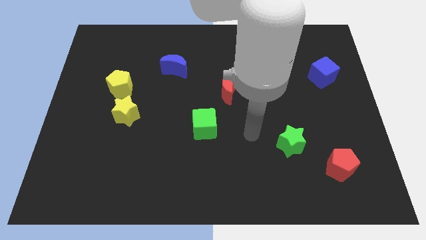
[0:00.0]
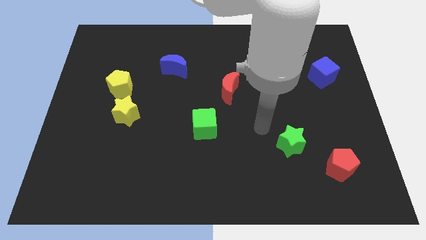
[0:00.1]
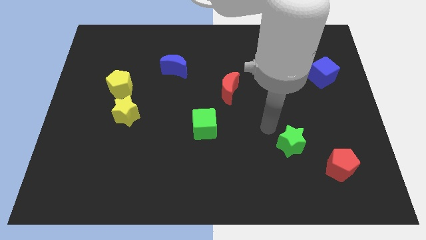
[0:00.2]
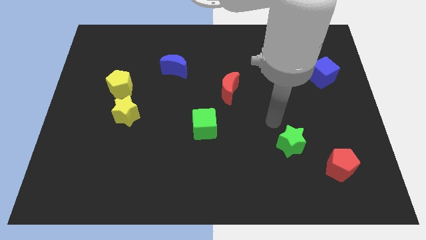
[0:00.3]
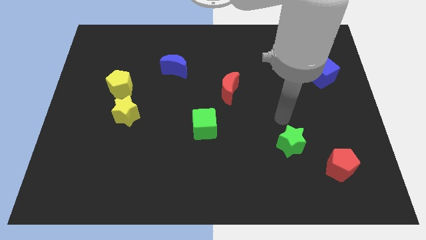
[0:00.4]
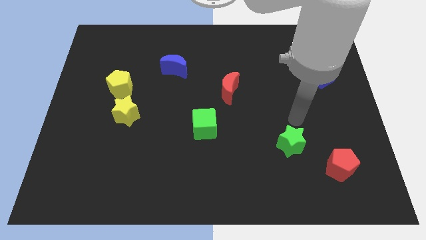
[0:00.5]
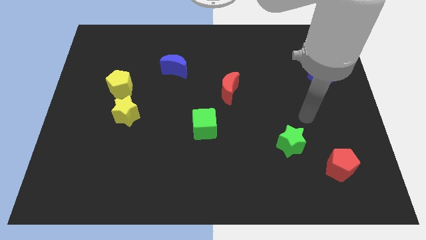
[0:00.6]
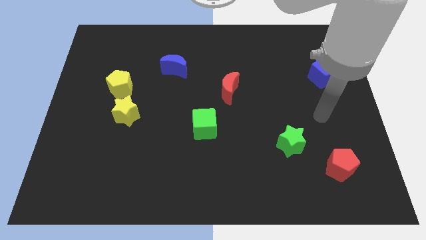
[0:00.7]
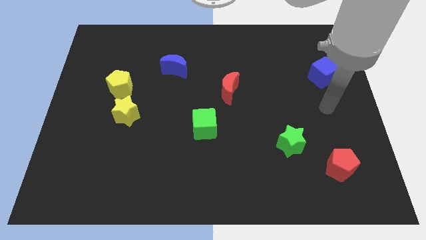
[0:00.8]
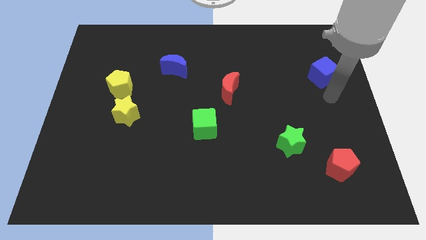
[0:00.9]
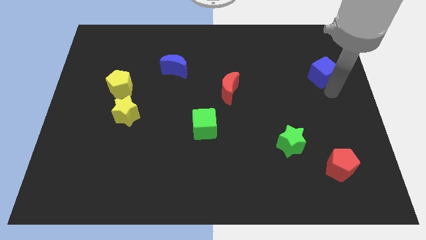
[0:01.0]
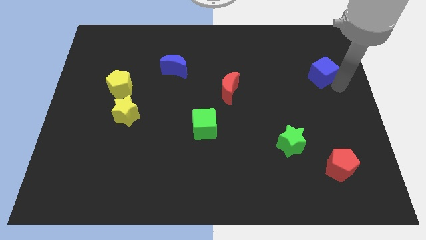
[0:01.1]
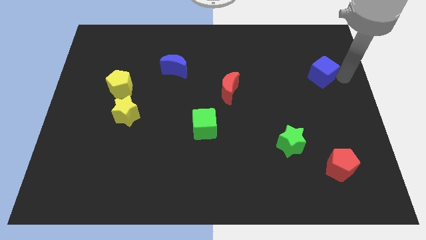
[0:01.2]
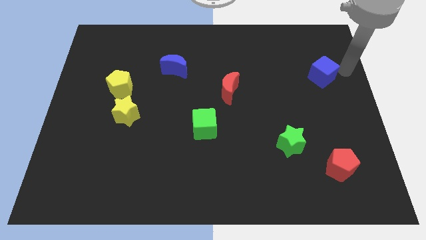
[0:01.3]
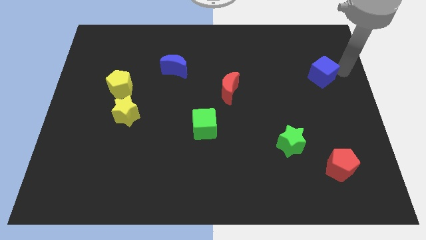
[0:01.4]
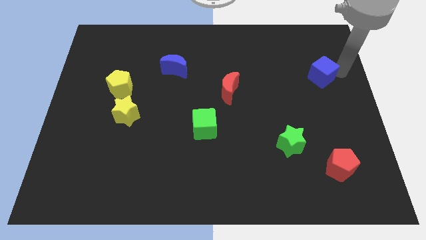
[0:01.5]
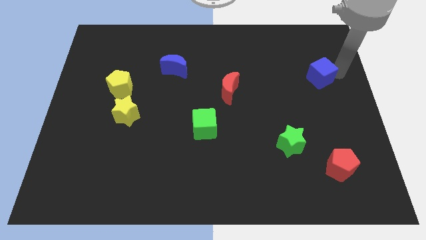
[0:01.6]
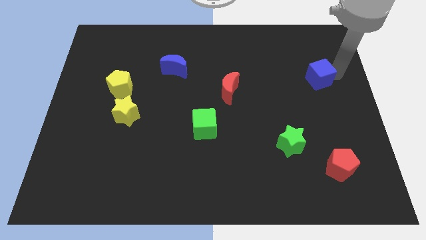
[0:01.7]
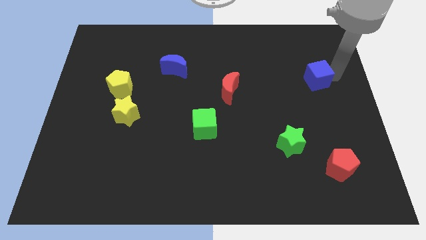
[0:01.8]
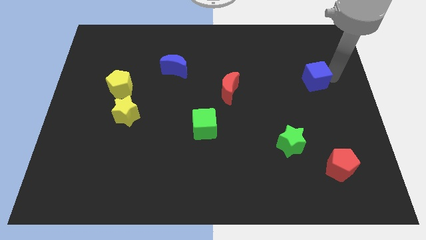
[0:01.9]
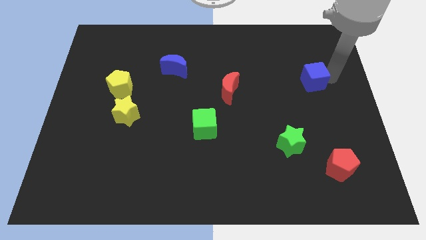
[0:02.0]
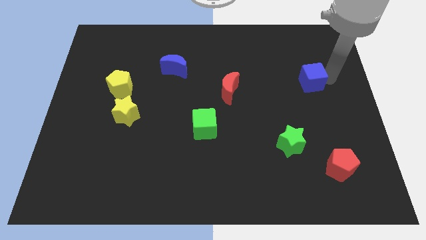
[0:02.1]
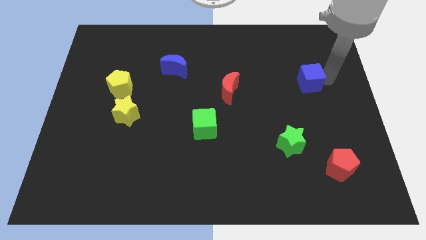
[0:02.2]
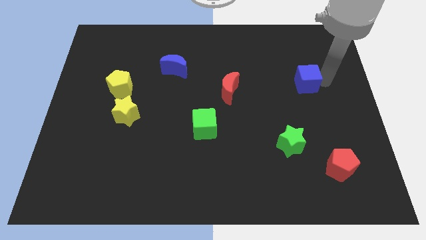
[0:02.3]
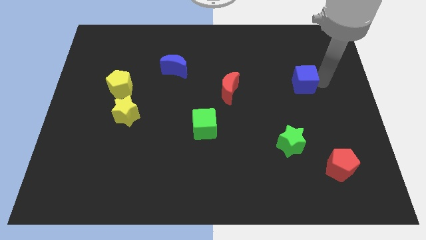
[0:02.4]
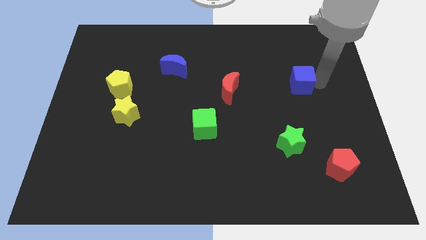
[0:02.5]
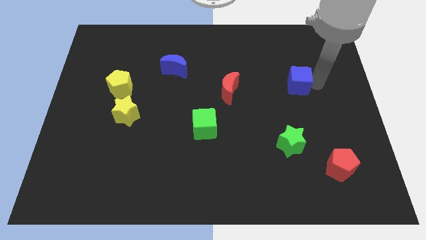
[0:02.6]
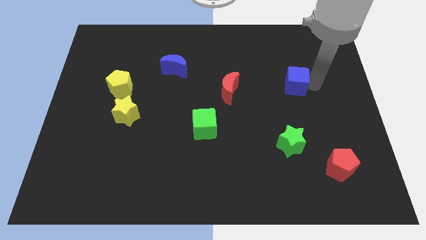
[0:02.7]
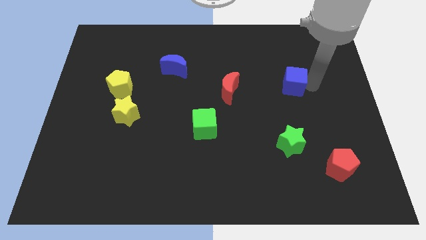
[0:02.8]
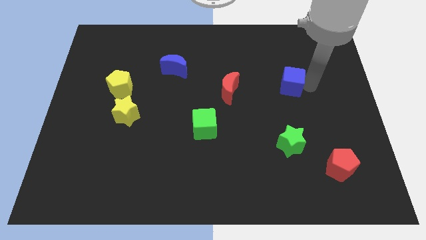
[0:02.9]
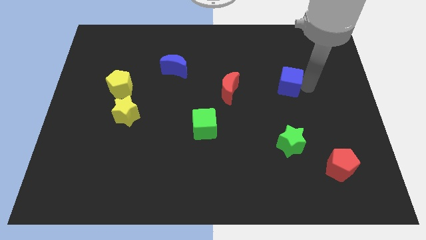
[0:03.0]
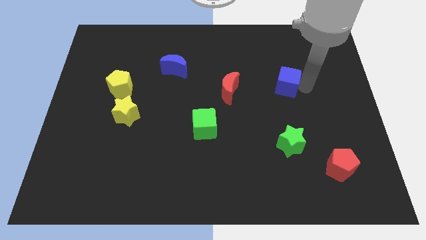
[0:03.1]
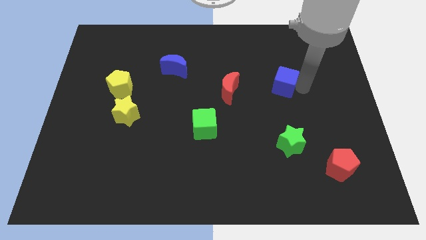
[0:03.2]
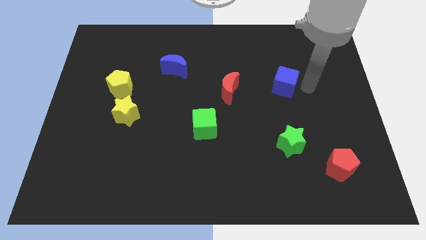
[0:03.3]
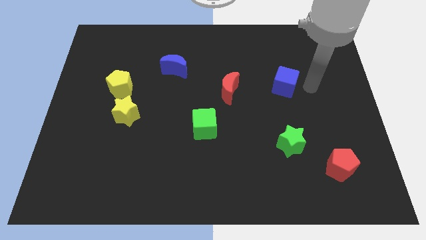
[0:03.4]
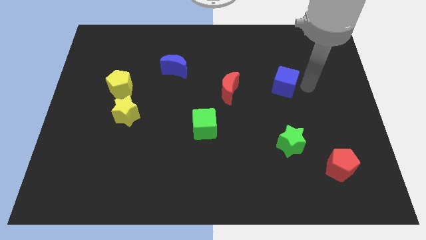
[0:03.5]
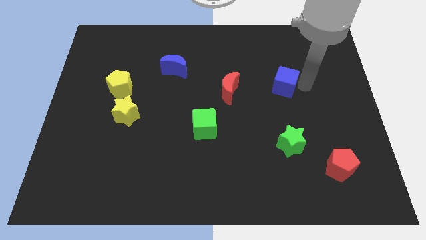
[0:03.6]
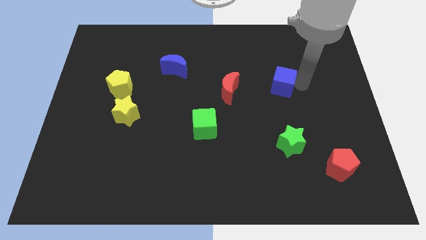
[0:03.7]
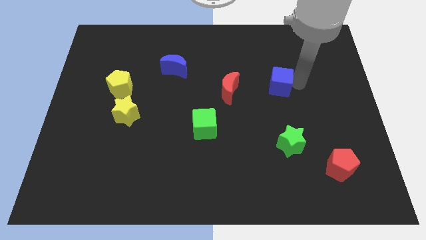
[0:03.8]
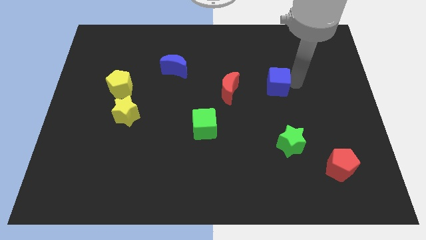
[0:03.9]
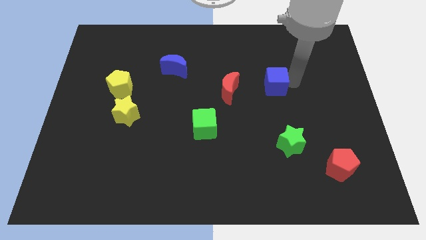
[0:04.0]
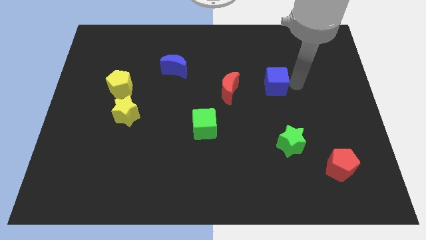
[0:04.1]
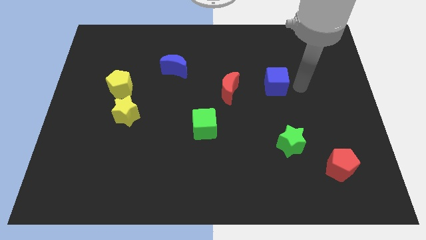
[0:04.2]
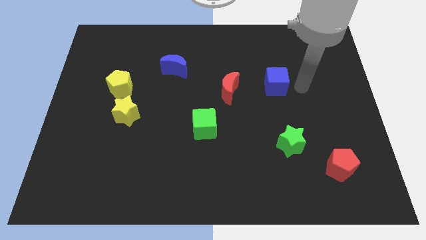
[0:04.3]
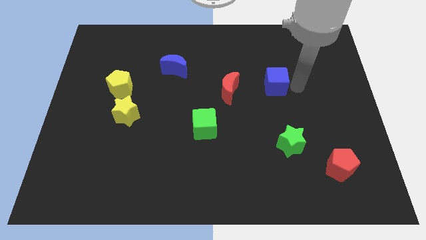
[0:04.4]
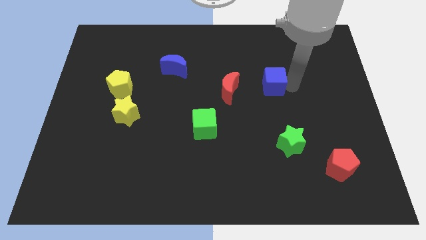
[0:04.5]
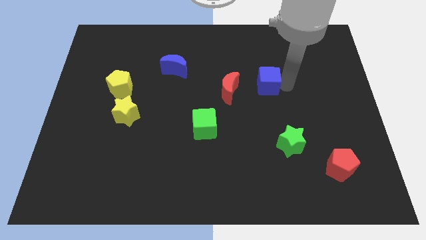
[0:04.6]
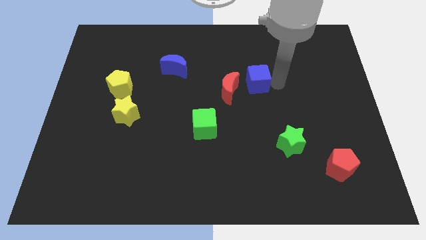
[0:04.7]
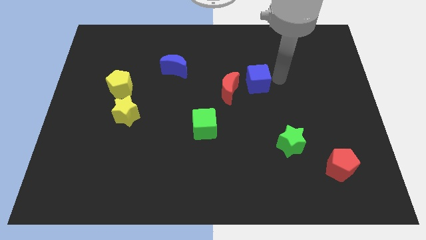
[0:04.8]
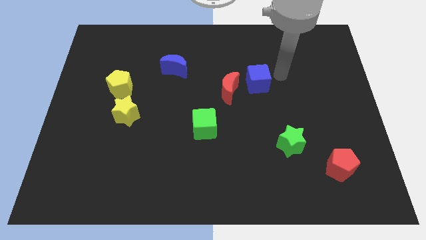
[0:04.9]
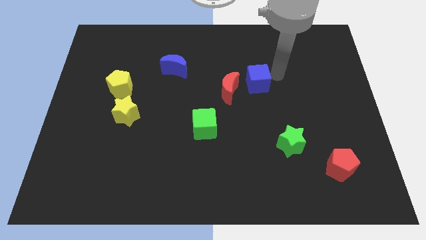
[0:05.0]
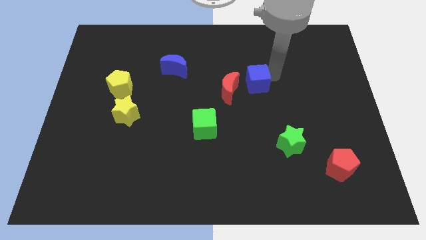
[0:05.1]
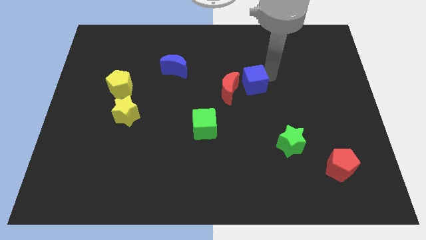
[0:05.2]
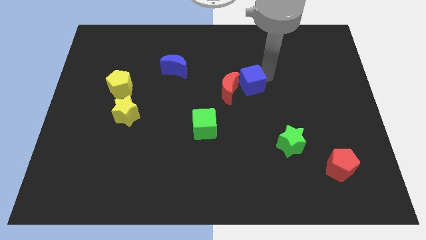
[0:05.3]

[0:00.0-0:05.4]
push the blue cube to the red moon

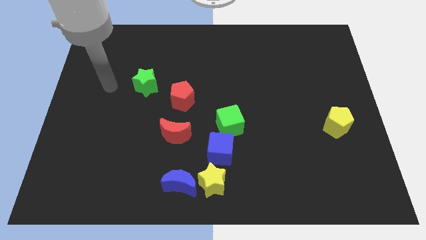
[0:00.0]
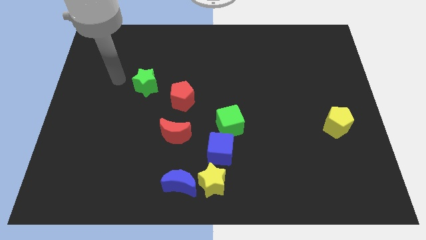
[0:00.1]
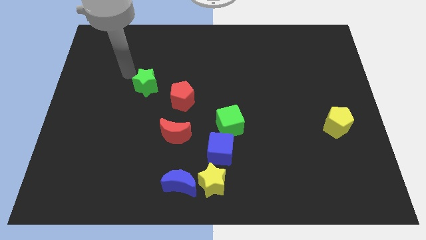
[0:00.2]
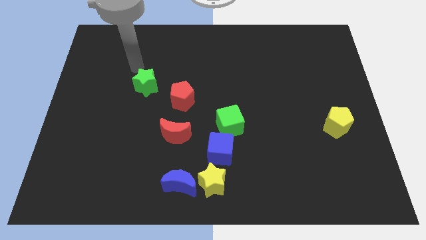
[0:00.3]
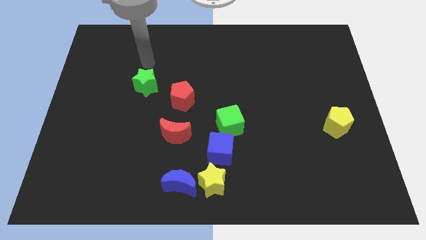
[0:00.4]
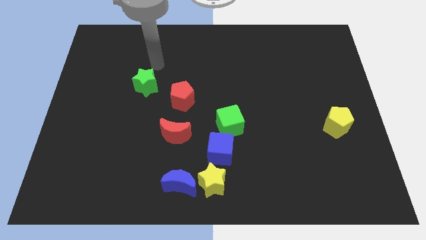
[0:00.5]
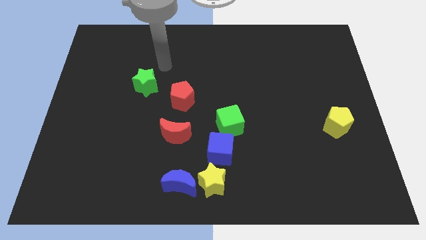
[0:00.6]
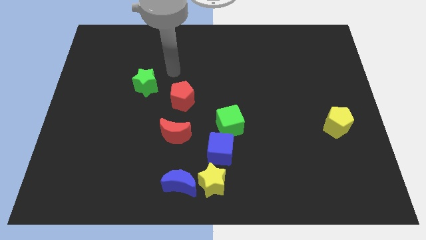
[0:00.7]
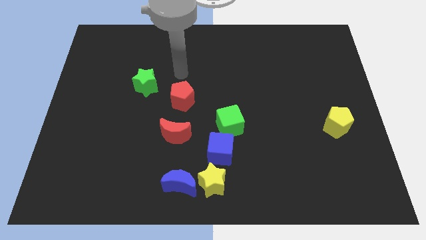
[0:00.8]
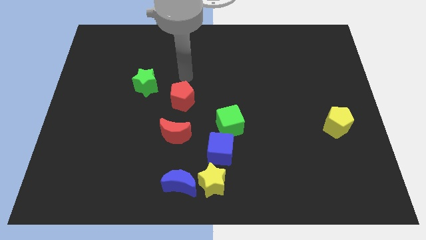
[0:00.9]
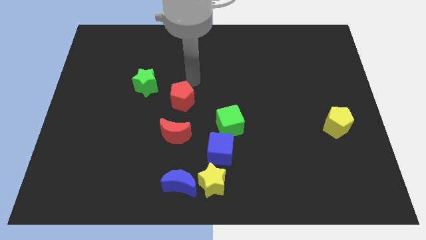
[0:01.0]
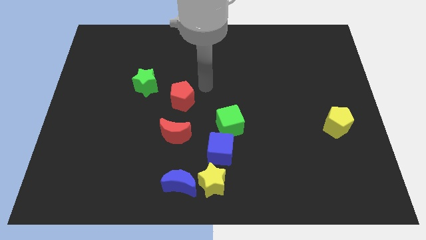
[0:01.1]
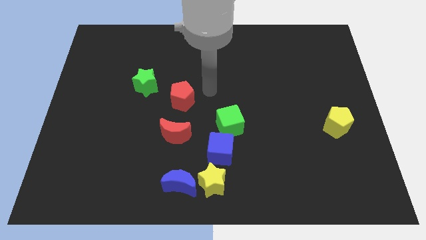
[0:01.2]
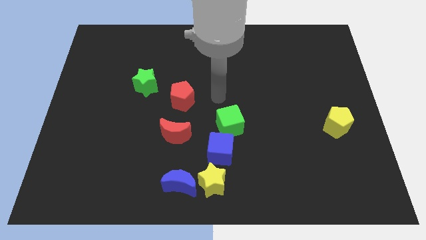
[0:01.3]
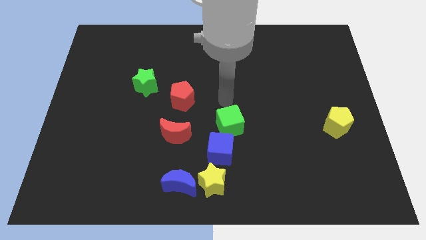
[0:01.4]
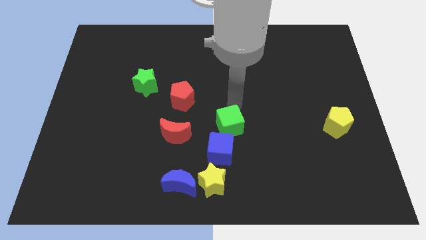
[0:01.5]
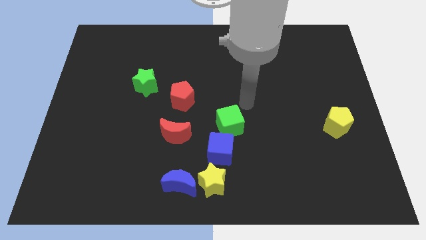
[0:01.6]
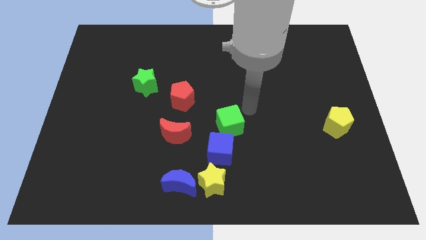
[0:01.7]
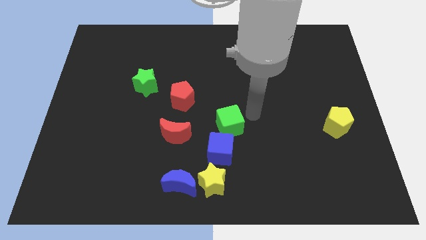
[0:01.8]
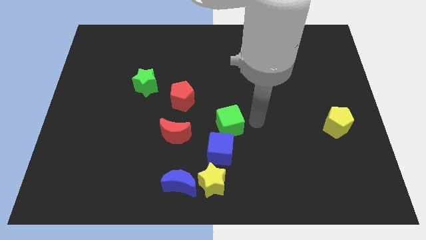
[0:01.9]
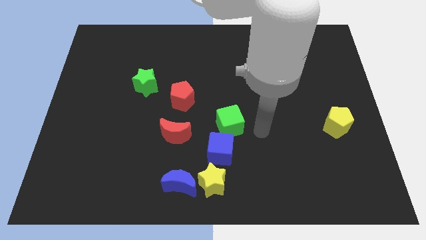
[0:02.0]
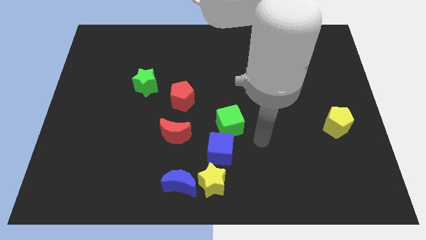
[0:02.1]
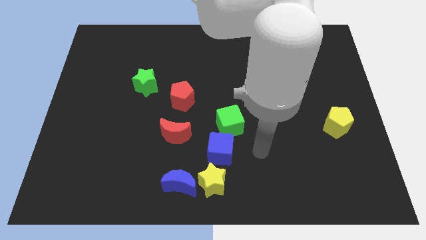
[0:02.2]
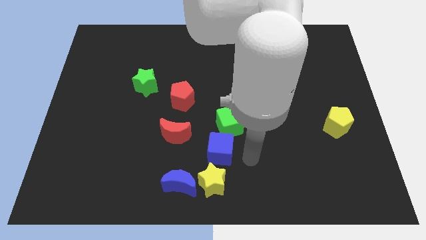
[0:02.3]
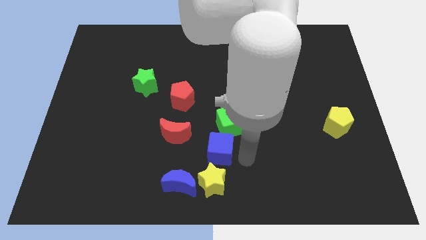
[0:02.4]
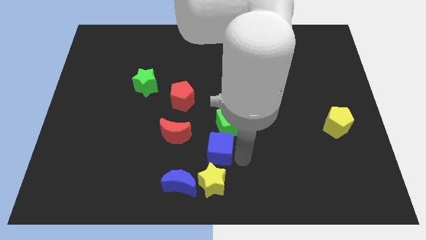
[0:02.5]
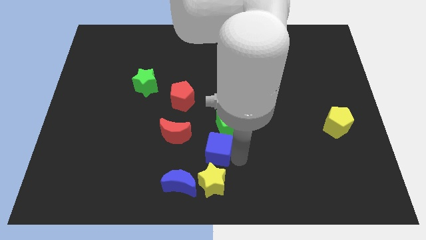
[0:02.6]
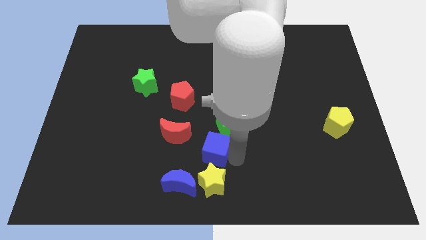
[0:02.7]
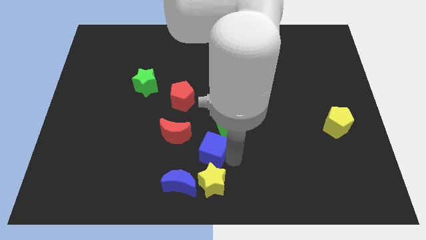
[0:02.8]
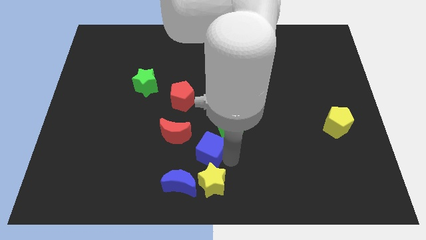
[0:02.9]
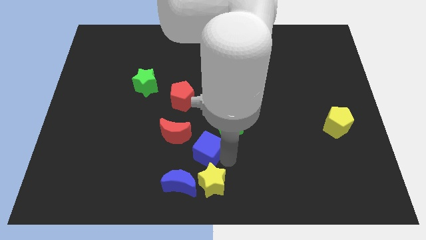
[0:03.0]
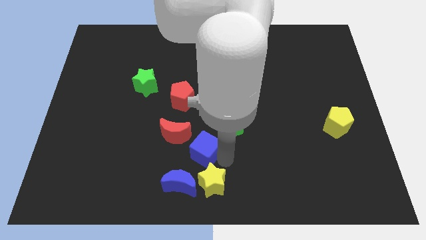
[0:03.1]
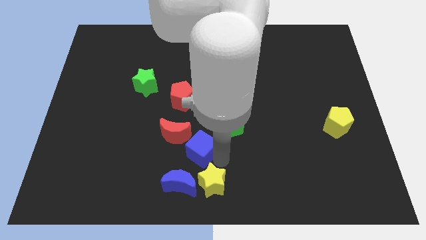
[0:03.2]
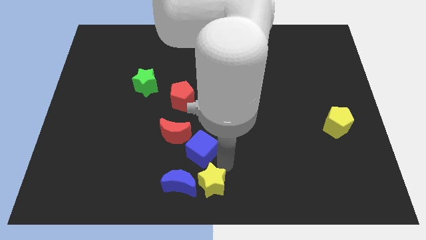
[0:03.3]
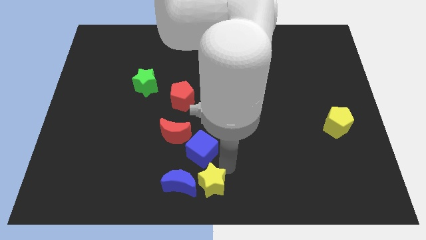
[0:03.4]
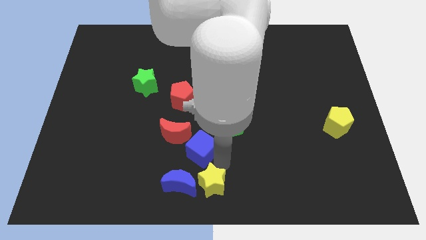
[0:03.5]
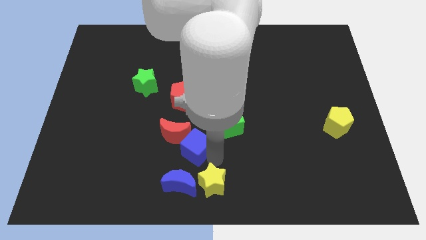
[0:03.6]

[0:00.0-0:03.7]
slide the blue cube to the red moon
